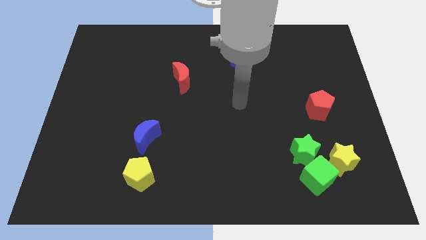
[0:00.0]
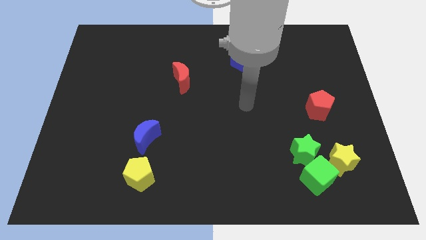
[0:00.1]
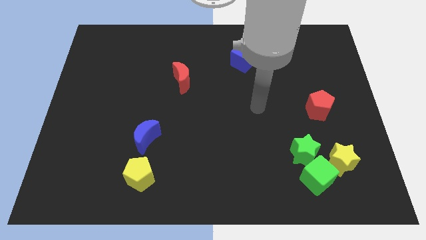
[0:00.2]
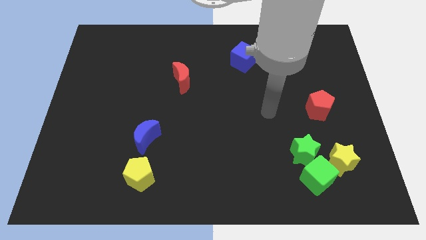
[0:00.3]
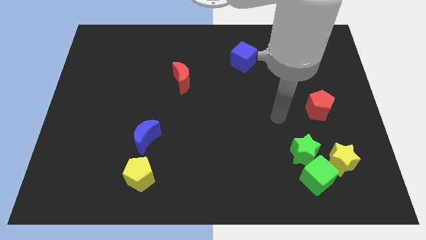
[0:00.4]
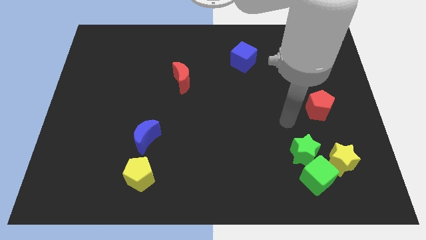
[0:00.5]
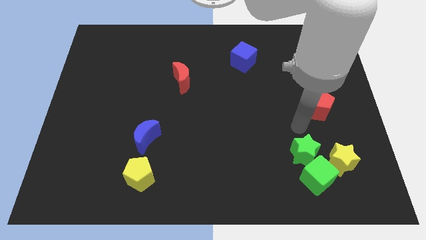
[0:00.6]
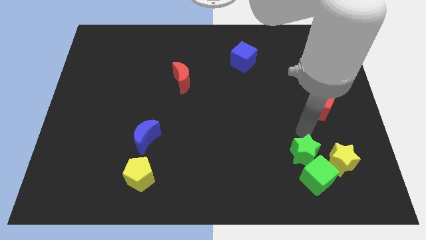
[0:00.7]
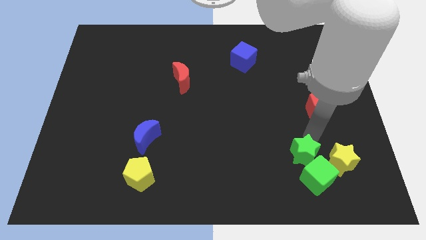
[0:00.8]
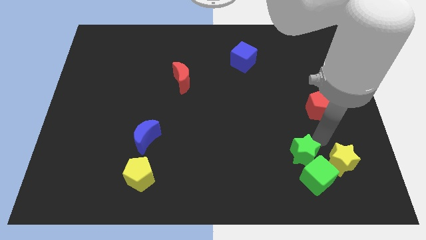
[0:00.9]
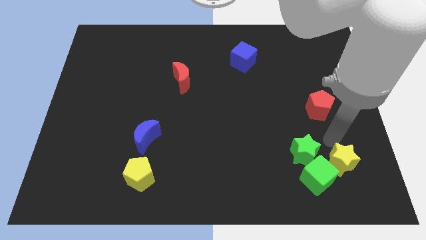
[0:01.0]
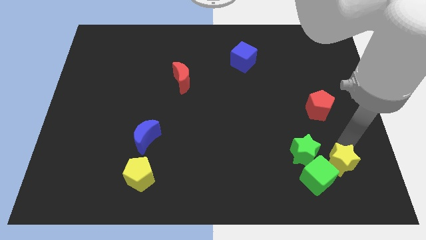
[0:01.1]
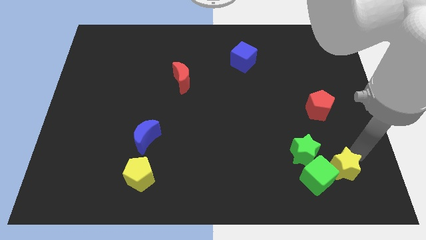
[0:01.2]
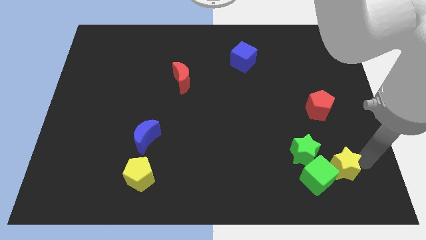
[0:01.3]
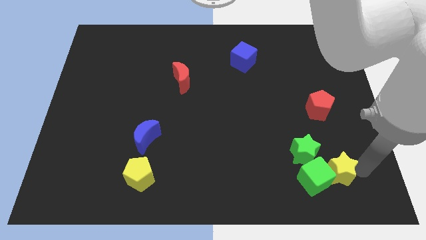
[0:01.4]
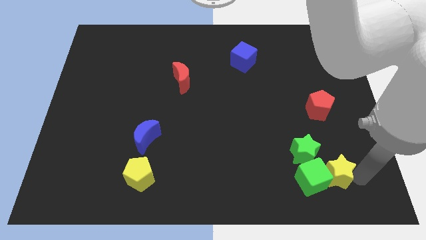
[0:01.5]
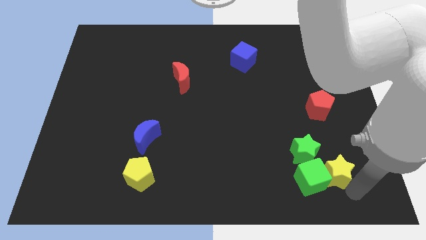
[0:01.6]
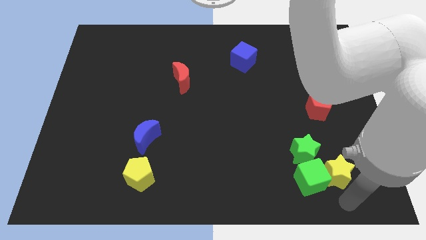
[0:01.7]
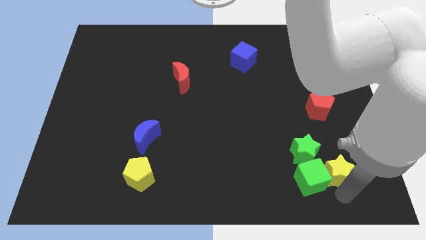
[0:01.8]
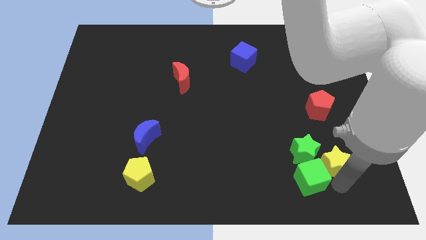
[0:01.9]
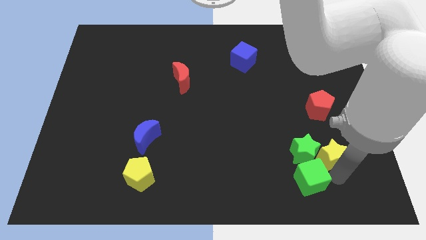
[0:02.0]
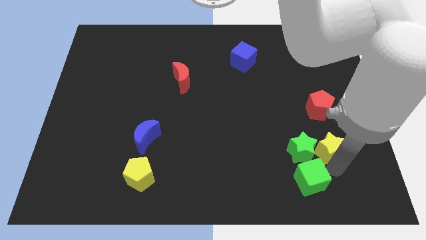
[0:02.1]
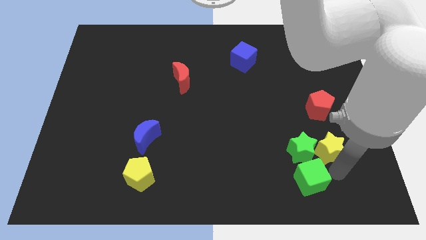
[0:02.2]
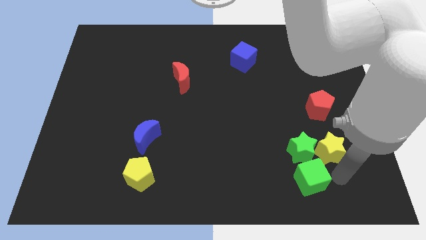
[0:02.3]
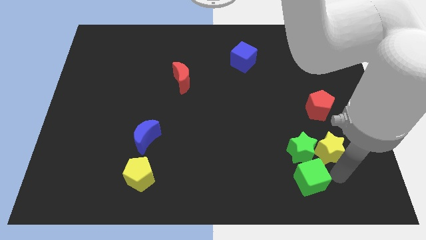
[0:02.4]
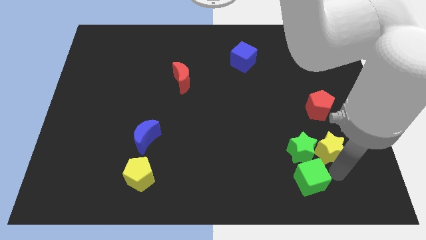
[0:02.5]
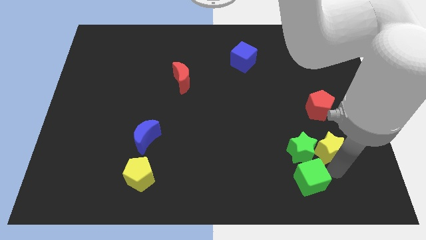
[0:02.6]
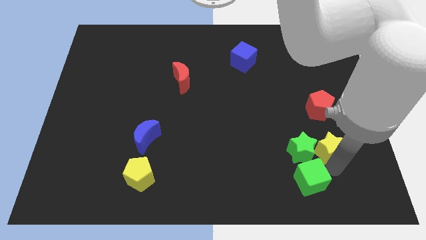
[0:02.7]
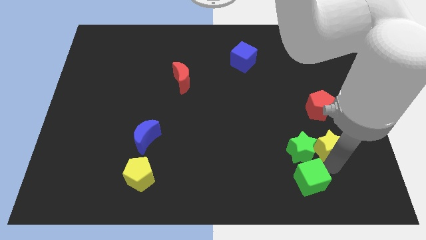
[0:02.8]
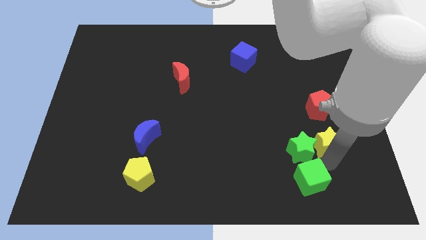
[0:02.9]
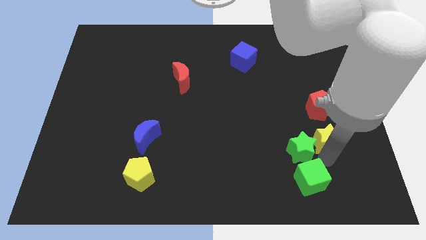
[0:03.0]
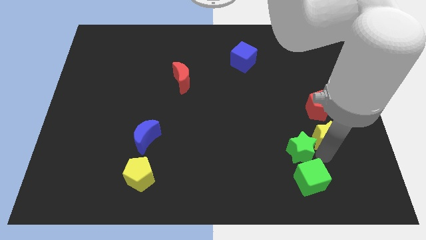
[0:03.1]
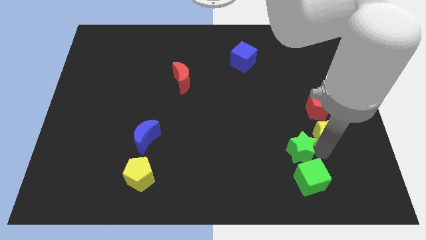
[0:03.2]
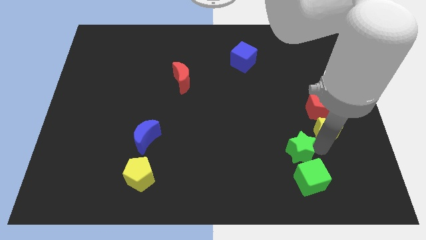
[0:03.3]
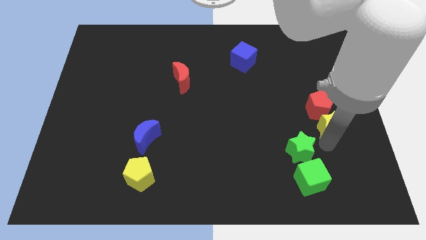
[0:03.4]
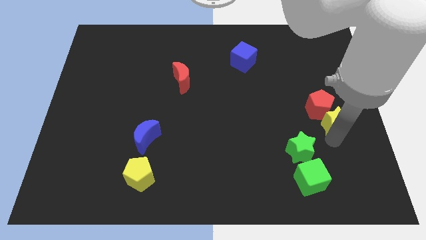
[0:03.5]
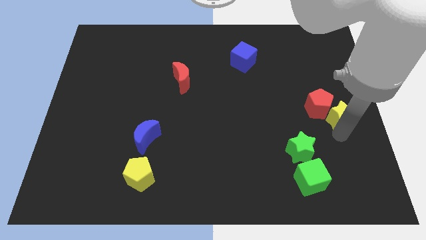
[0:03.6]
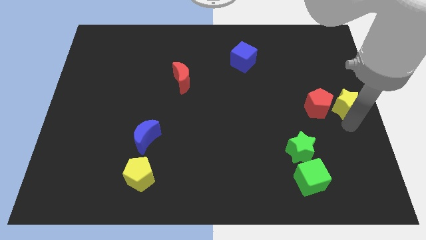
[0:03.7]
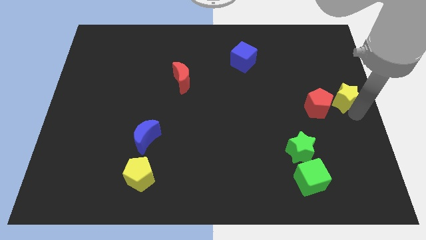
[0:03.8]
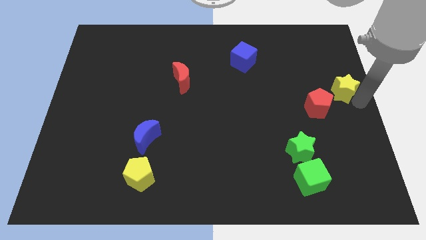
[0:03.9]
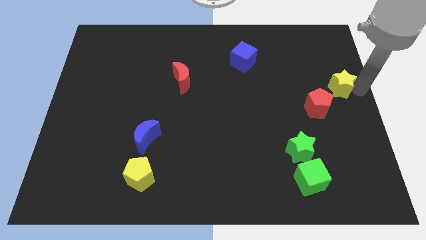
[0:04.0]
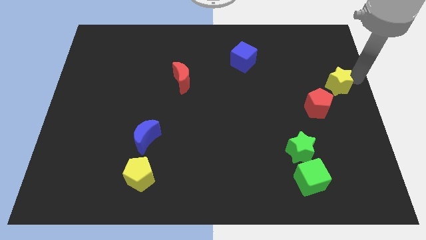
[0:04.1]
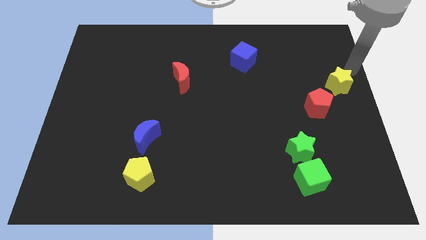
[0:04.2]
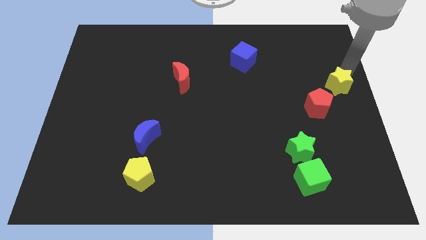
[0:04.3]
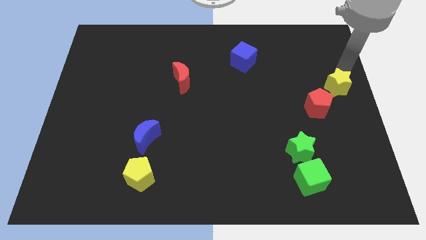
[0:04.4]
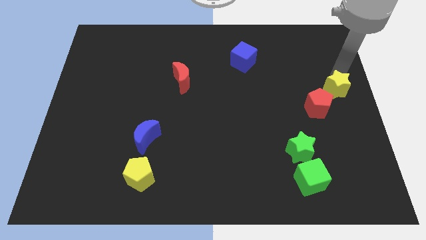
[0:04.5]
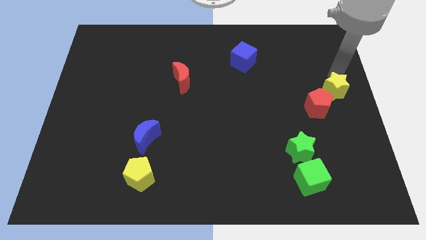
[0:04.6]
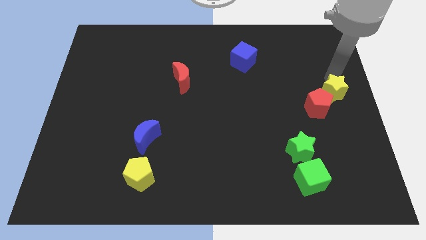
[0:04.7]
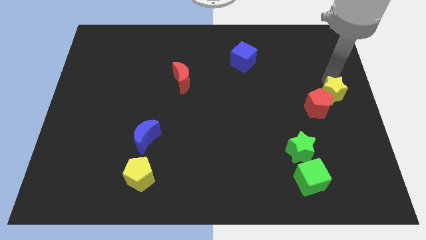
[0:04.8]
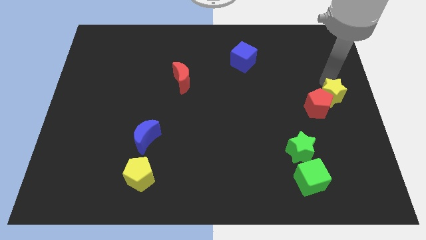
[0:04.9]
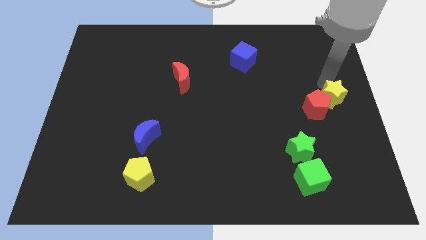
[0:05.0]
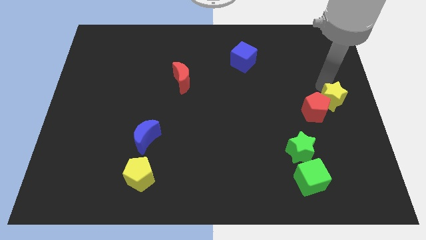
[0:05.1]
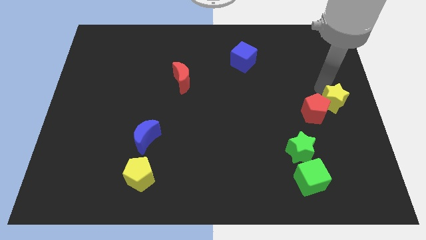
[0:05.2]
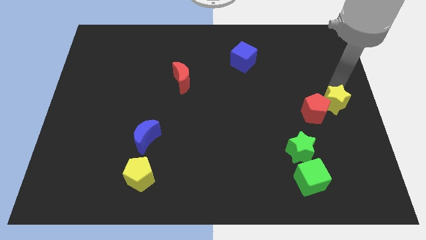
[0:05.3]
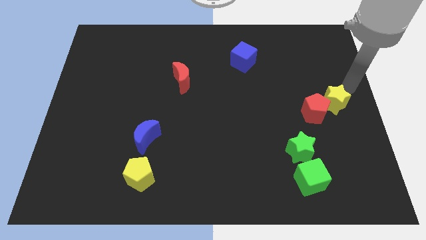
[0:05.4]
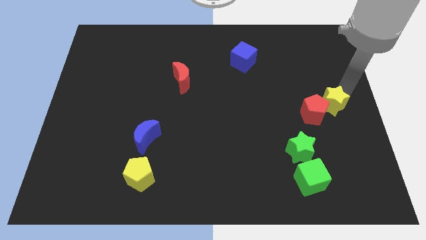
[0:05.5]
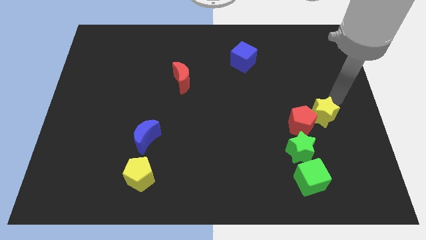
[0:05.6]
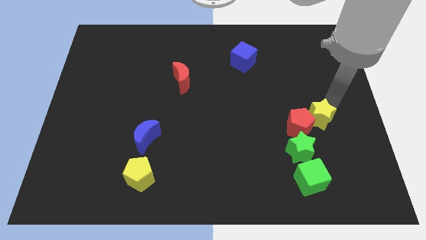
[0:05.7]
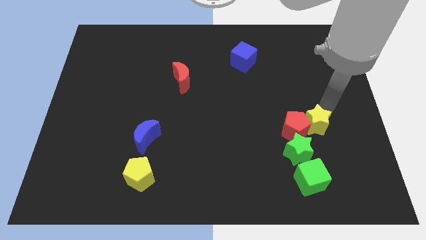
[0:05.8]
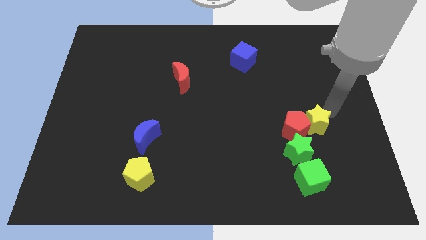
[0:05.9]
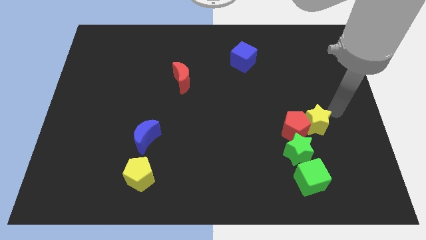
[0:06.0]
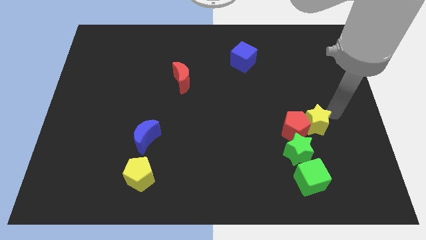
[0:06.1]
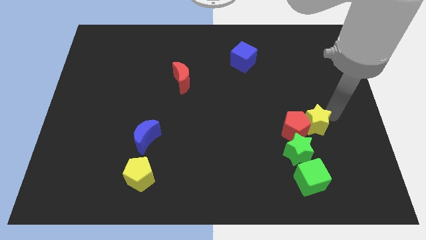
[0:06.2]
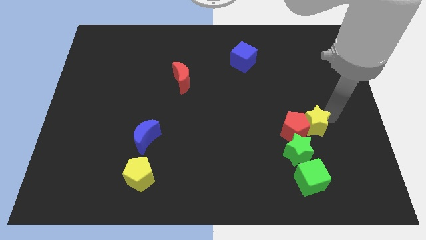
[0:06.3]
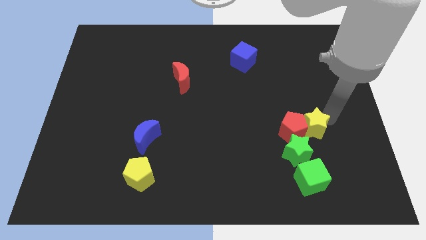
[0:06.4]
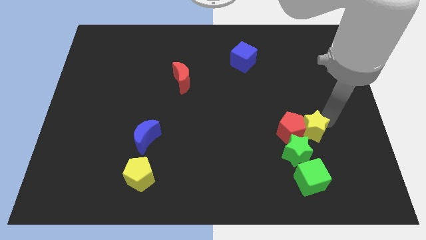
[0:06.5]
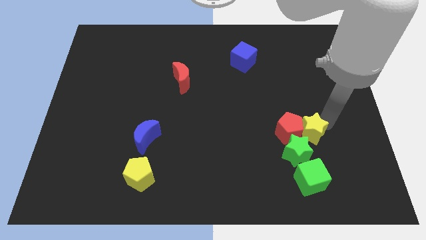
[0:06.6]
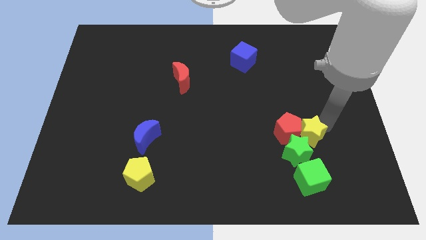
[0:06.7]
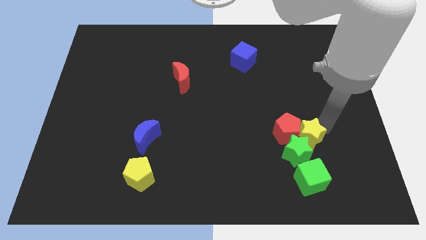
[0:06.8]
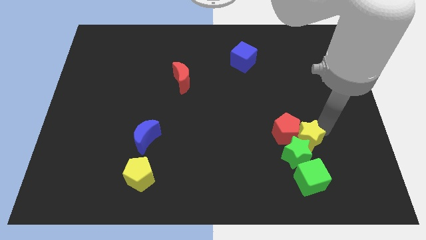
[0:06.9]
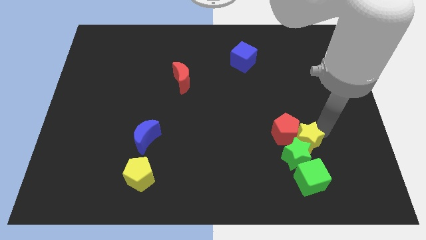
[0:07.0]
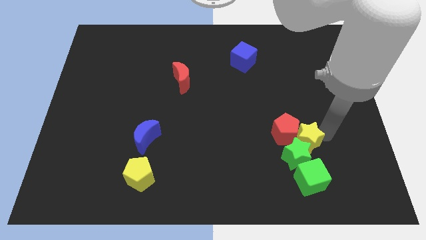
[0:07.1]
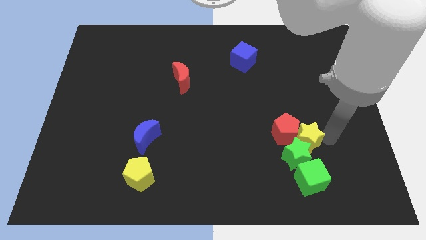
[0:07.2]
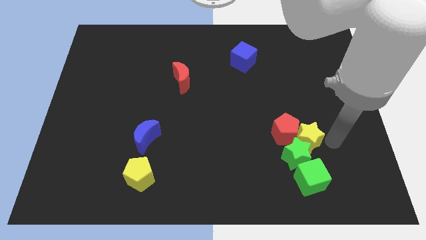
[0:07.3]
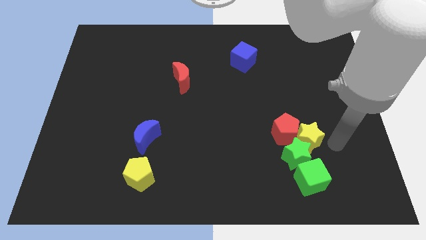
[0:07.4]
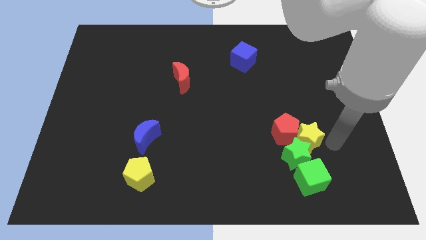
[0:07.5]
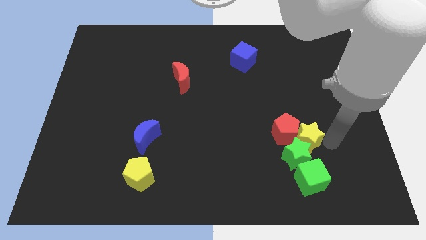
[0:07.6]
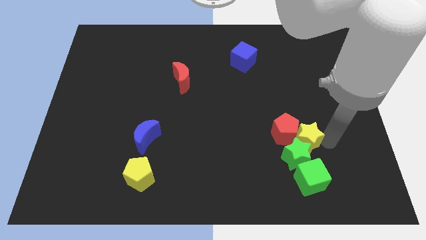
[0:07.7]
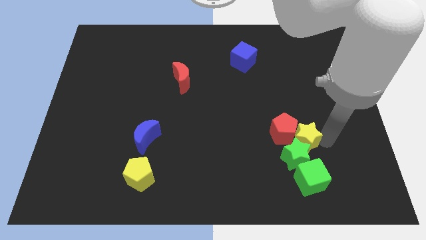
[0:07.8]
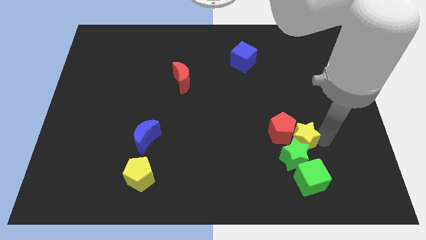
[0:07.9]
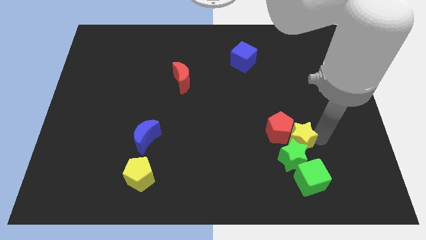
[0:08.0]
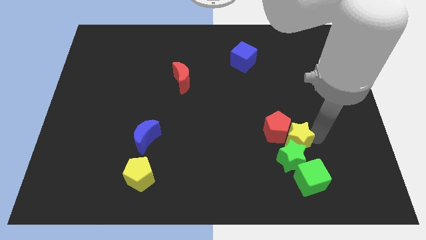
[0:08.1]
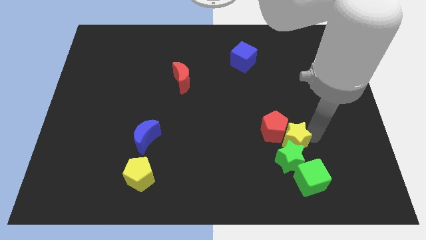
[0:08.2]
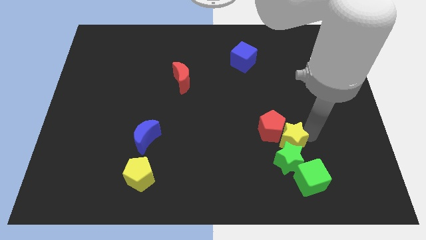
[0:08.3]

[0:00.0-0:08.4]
put the yellow star diagonally up and to the left of the green cube
